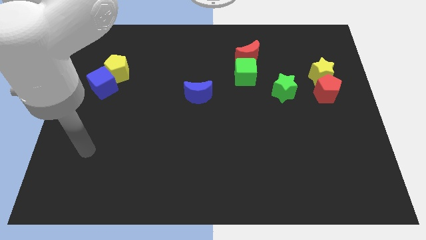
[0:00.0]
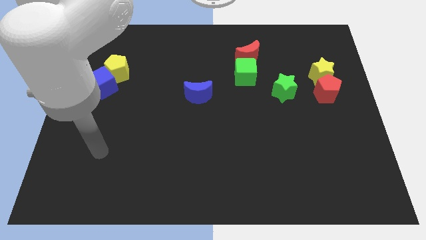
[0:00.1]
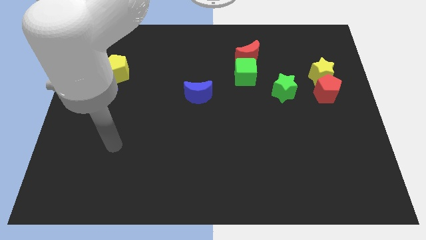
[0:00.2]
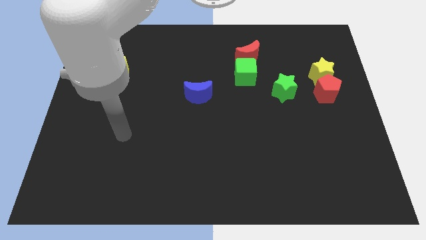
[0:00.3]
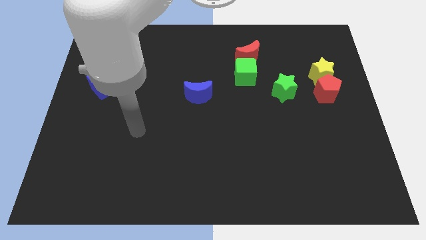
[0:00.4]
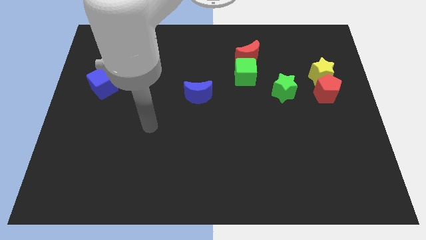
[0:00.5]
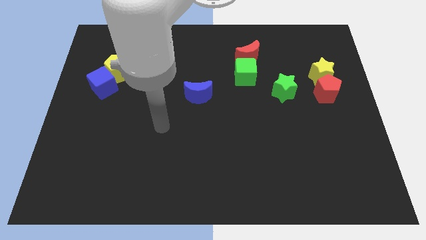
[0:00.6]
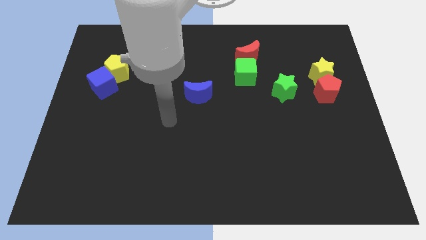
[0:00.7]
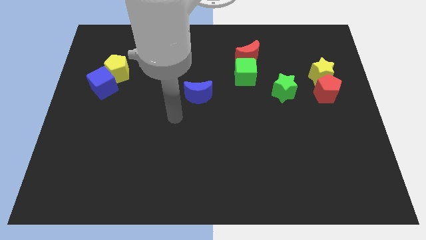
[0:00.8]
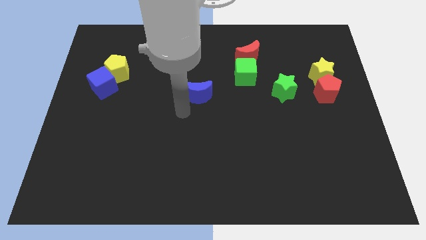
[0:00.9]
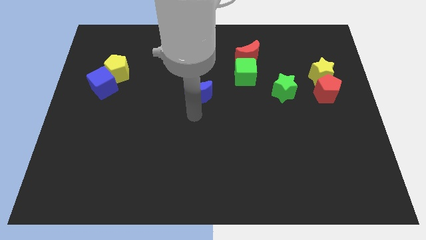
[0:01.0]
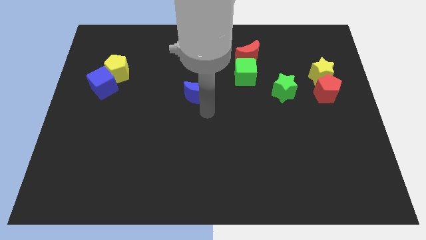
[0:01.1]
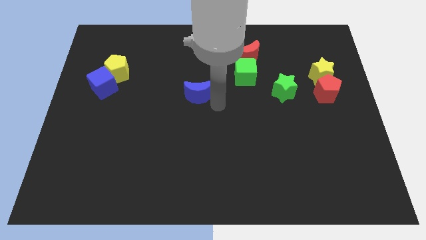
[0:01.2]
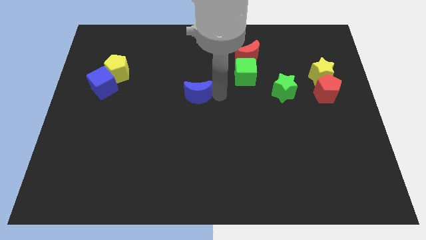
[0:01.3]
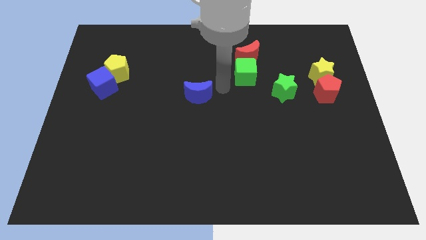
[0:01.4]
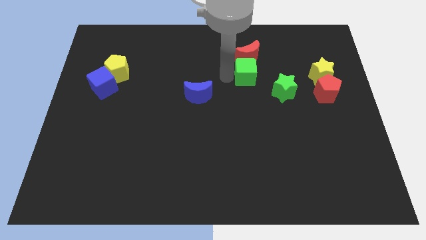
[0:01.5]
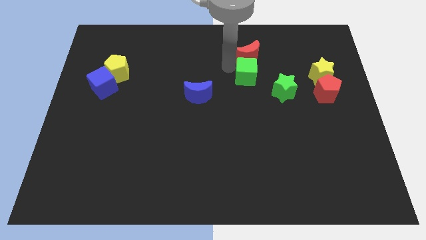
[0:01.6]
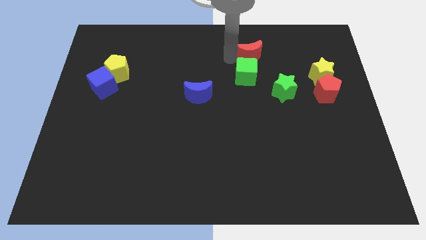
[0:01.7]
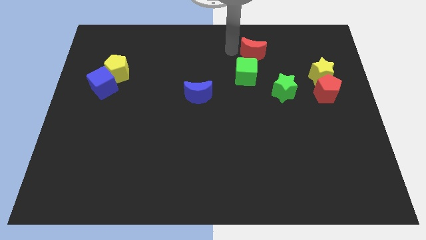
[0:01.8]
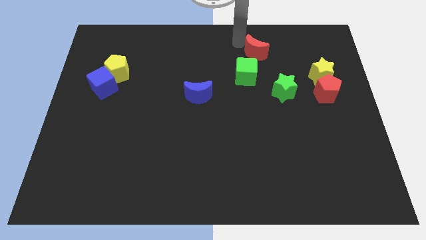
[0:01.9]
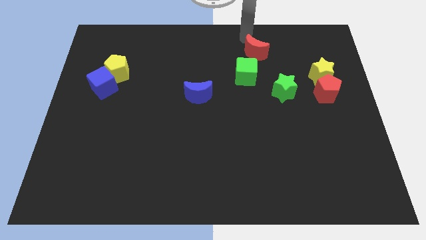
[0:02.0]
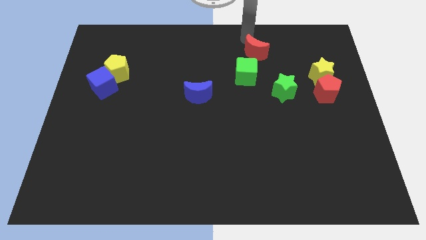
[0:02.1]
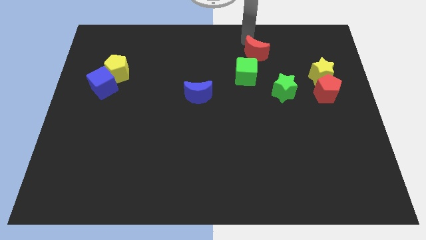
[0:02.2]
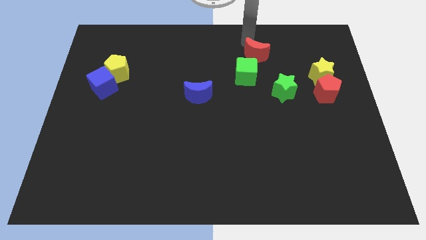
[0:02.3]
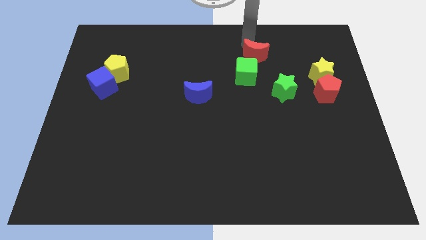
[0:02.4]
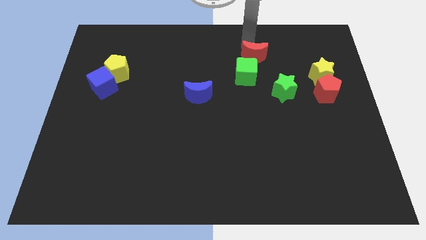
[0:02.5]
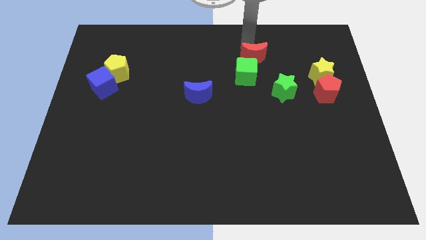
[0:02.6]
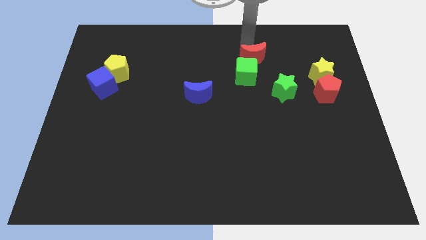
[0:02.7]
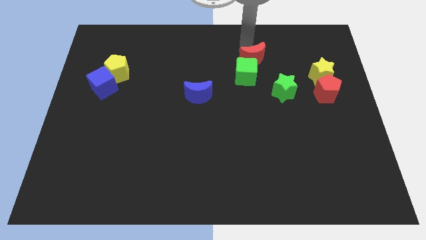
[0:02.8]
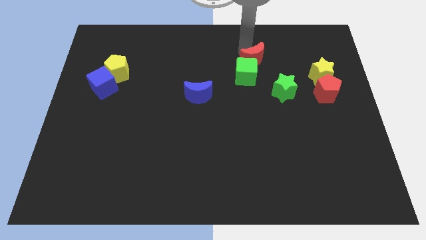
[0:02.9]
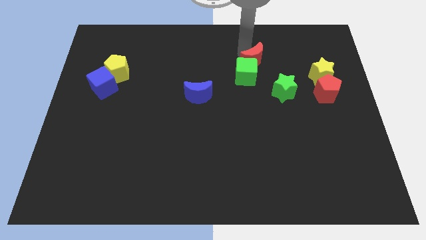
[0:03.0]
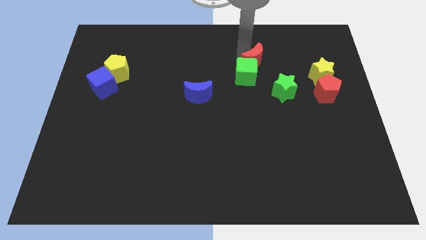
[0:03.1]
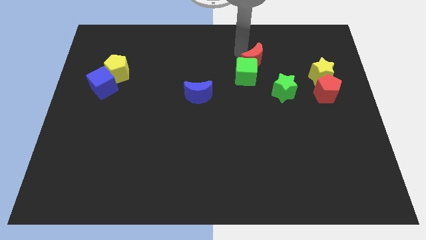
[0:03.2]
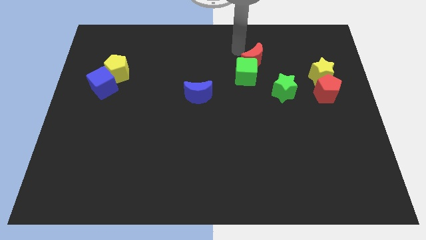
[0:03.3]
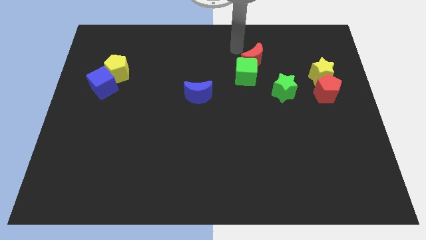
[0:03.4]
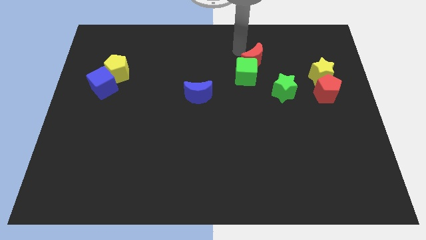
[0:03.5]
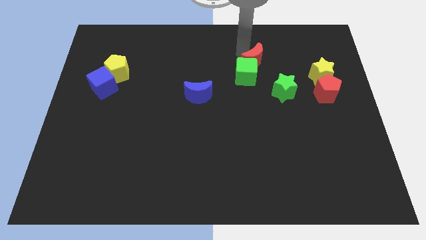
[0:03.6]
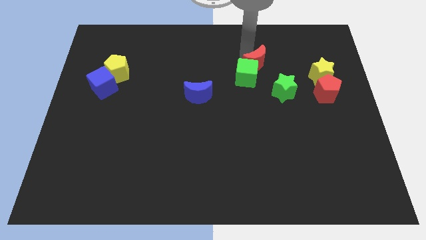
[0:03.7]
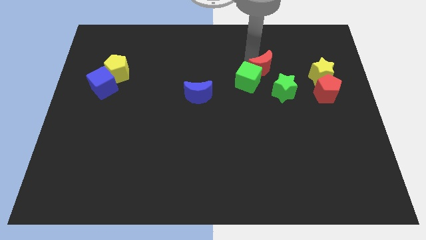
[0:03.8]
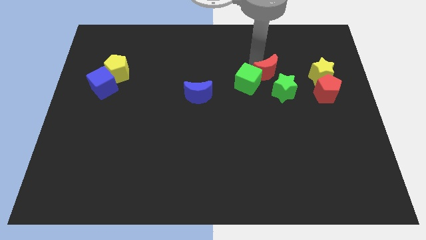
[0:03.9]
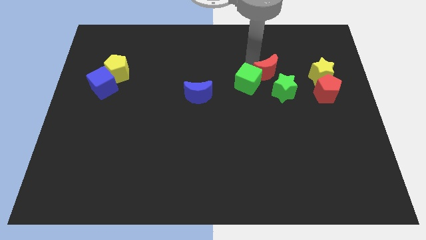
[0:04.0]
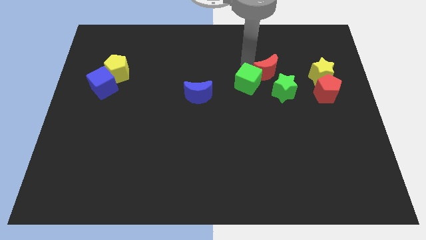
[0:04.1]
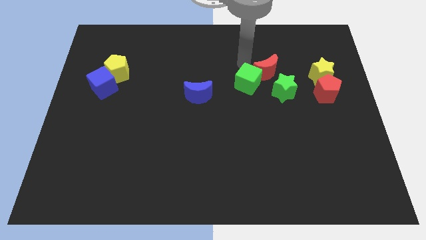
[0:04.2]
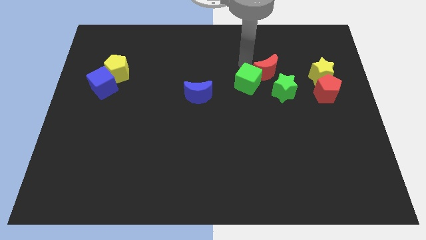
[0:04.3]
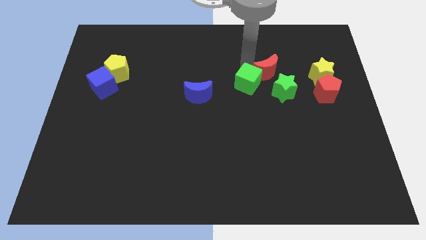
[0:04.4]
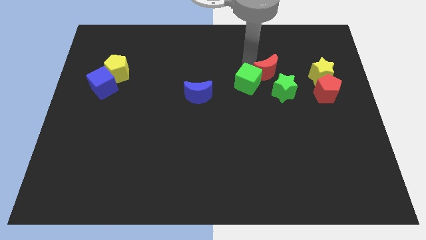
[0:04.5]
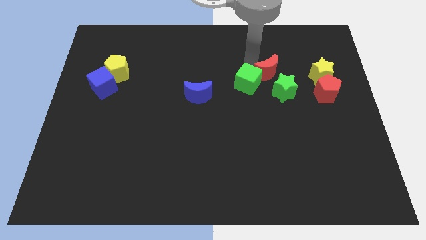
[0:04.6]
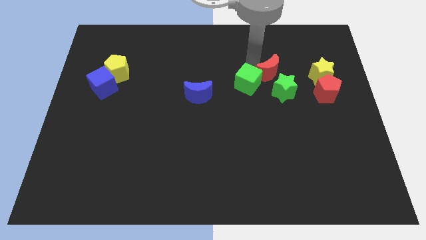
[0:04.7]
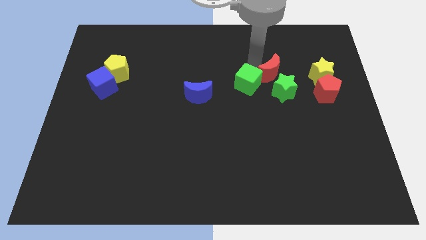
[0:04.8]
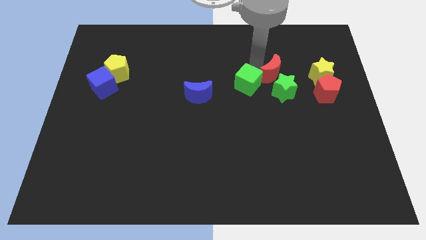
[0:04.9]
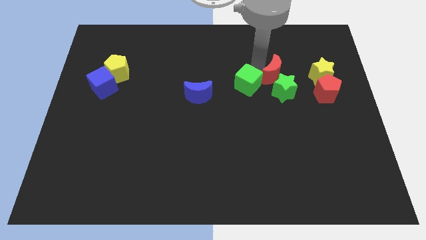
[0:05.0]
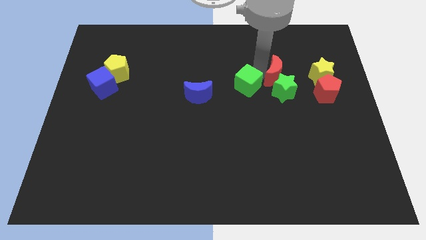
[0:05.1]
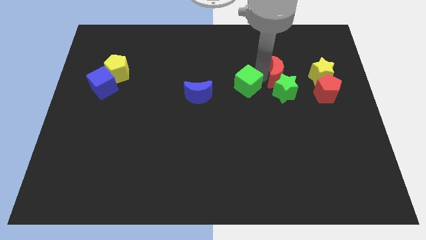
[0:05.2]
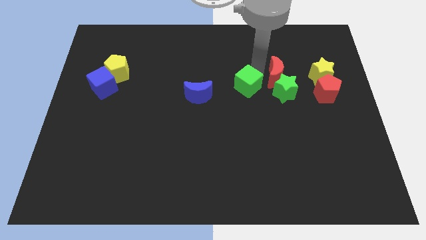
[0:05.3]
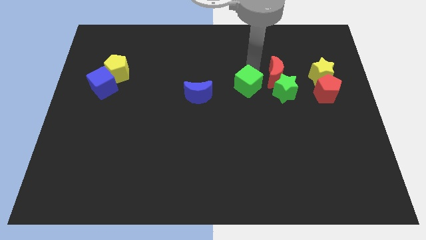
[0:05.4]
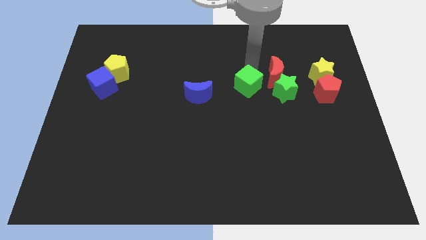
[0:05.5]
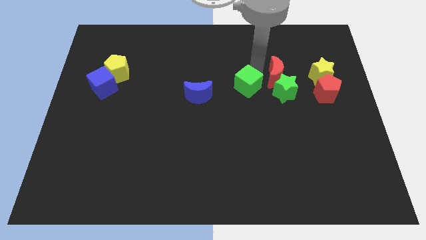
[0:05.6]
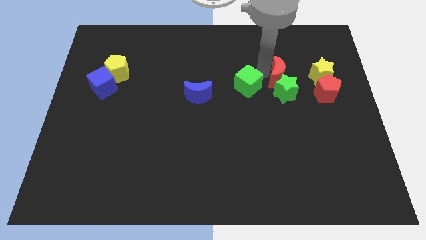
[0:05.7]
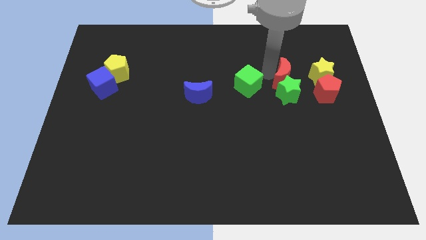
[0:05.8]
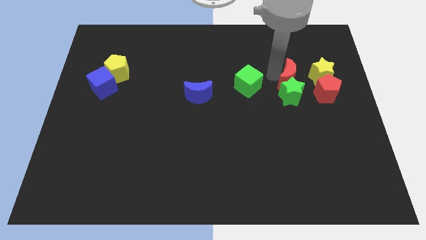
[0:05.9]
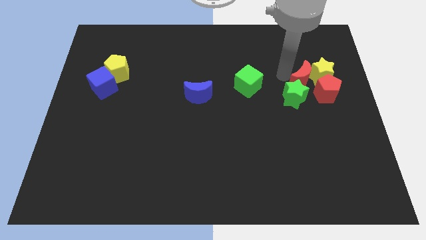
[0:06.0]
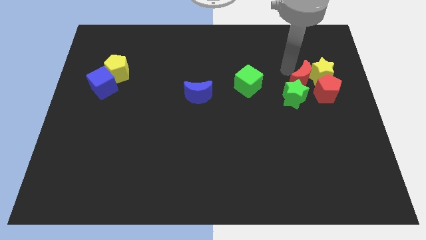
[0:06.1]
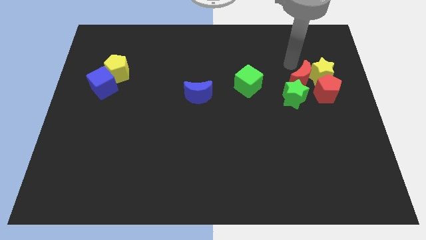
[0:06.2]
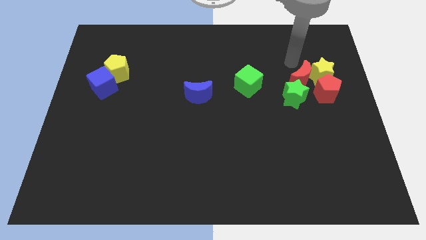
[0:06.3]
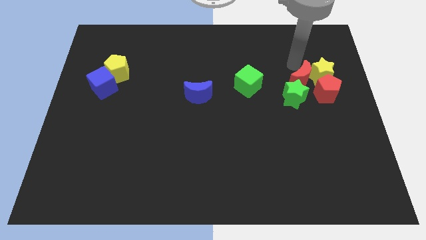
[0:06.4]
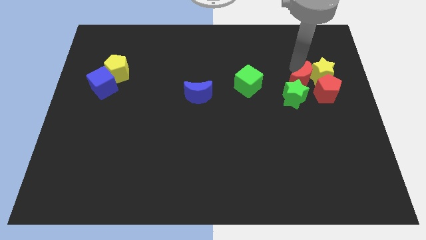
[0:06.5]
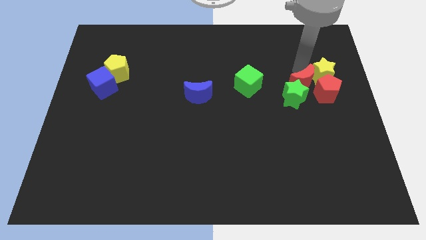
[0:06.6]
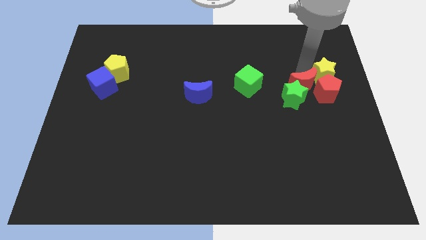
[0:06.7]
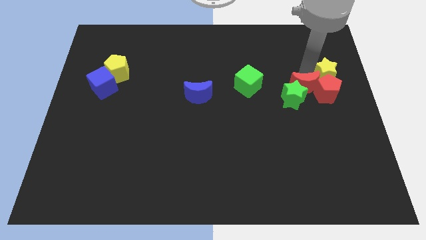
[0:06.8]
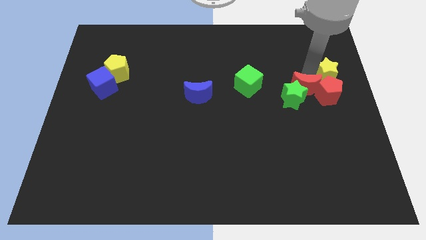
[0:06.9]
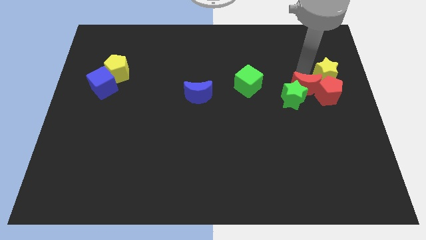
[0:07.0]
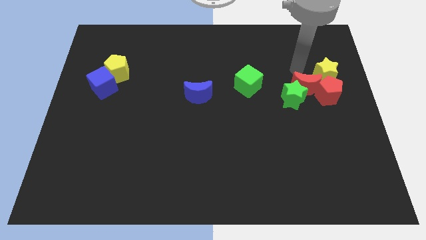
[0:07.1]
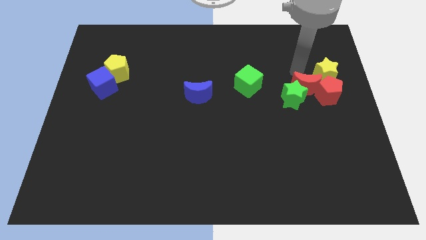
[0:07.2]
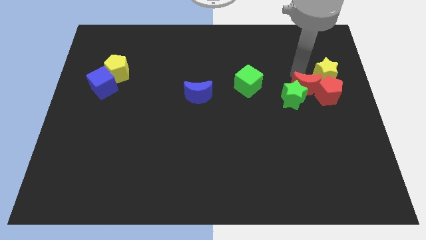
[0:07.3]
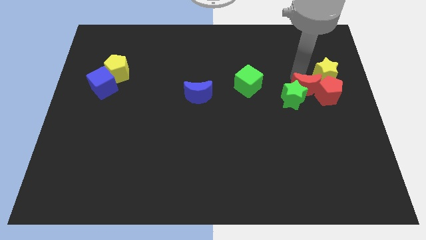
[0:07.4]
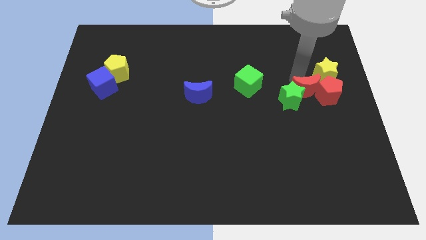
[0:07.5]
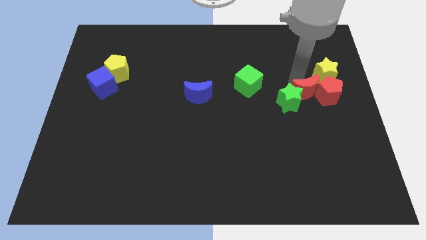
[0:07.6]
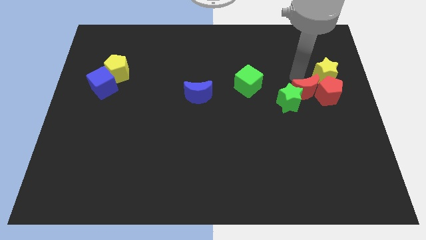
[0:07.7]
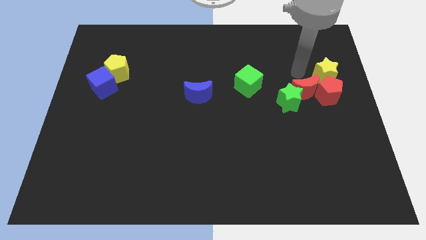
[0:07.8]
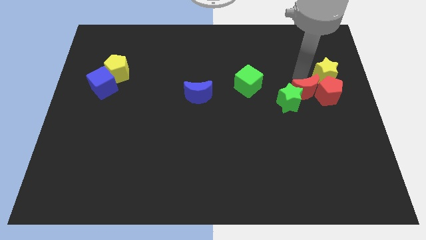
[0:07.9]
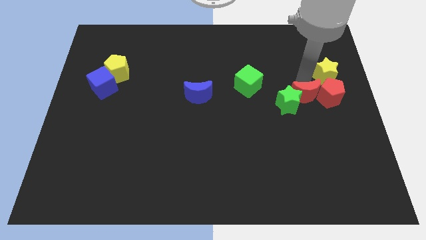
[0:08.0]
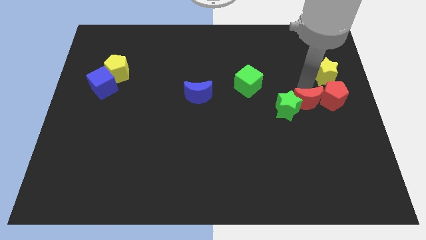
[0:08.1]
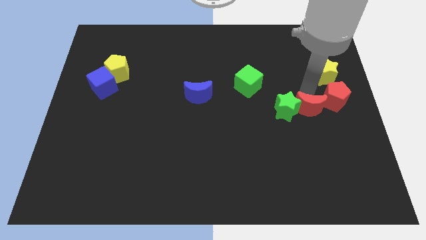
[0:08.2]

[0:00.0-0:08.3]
move the red moon to the bottom right side of the green star
